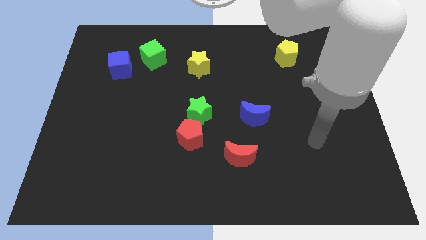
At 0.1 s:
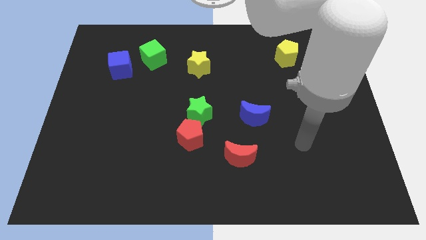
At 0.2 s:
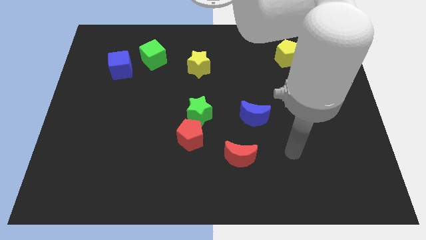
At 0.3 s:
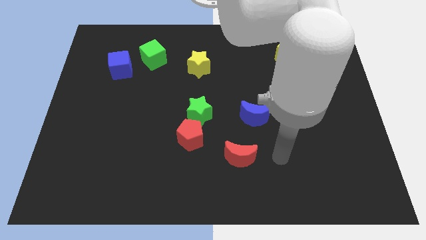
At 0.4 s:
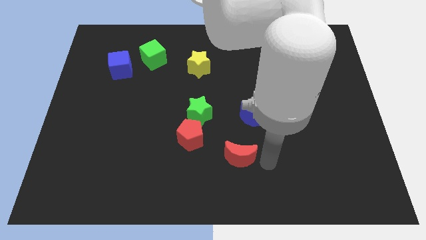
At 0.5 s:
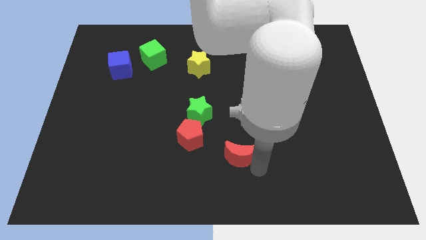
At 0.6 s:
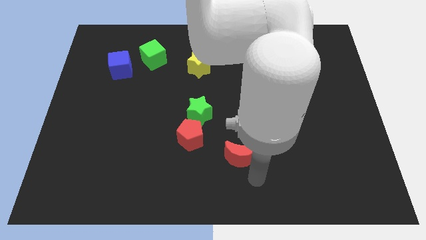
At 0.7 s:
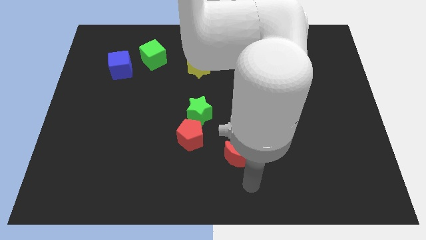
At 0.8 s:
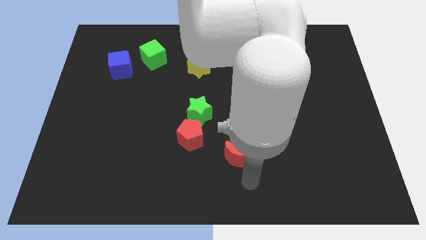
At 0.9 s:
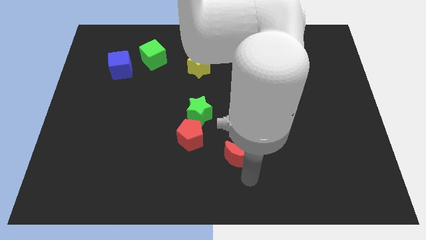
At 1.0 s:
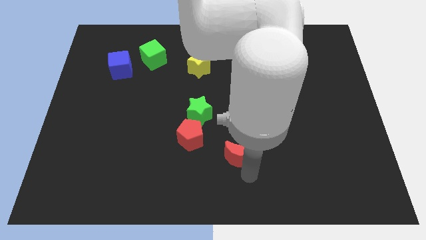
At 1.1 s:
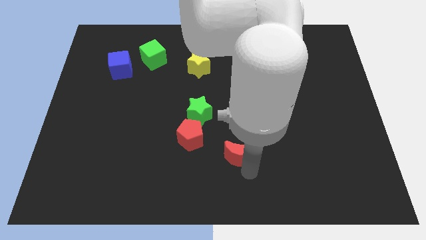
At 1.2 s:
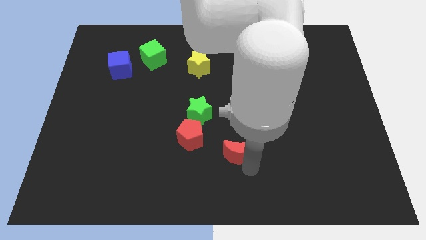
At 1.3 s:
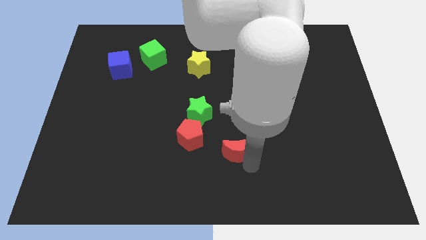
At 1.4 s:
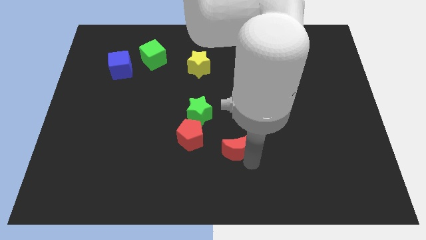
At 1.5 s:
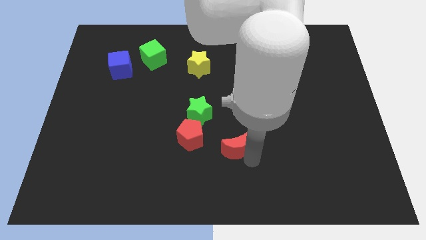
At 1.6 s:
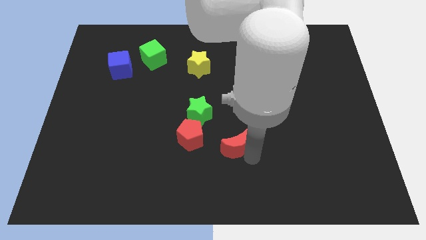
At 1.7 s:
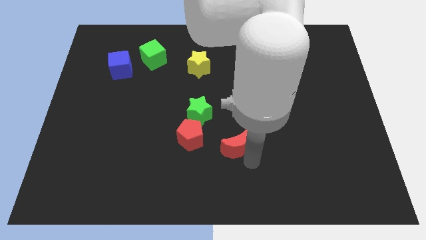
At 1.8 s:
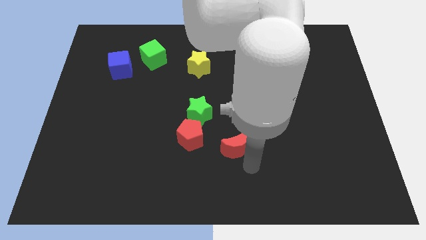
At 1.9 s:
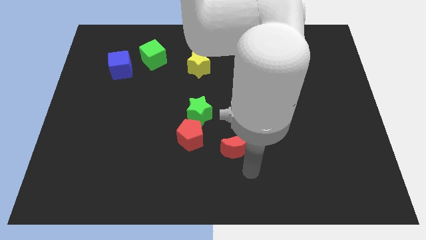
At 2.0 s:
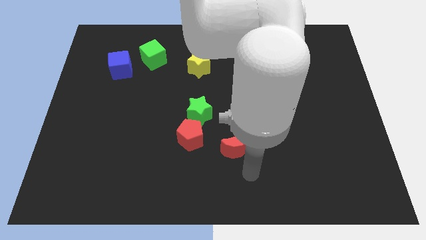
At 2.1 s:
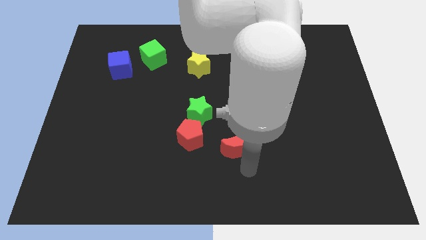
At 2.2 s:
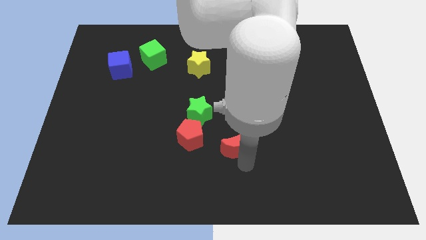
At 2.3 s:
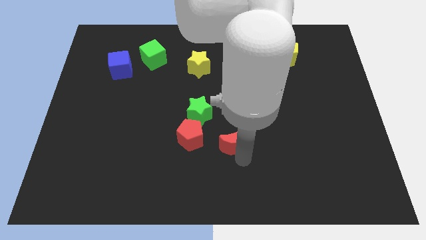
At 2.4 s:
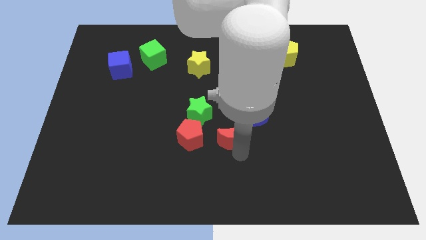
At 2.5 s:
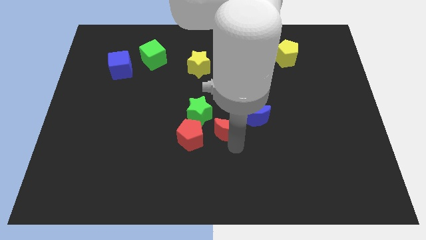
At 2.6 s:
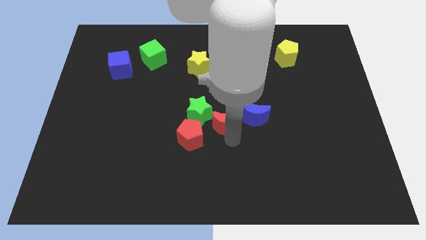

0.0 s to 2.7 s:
slide the red moon slightly up and left

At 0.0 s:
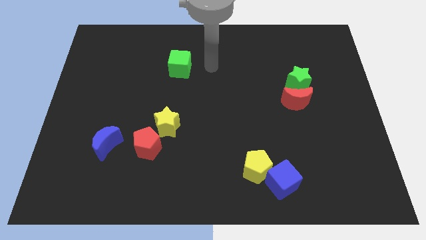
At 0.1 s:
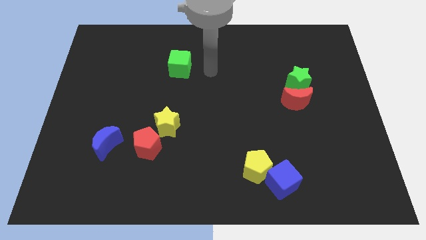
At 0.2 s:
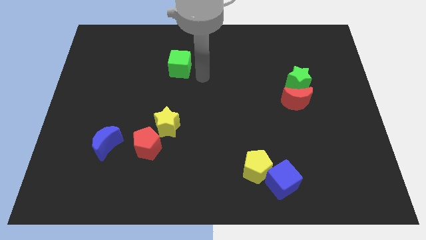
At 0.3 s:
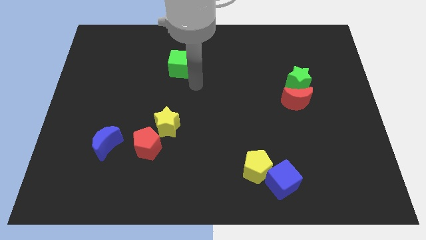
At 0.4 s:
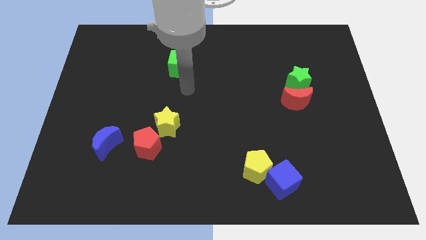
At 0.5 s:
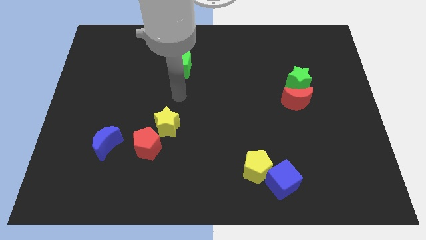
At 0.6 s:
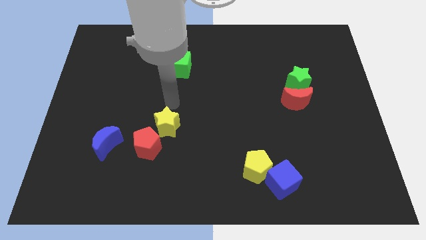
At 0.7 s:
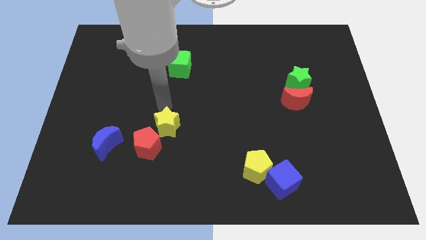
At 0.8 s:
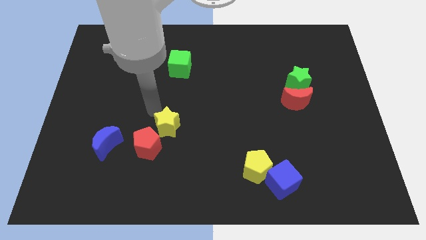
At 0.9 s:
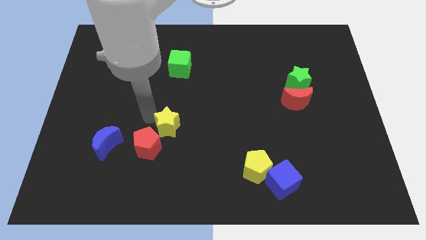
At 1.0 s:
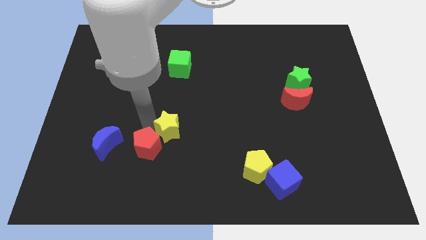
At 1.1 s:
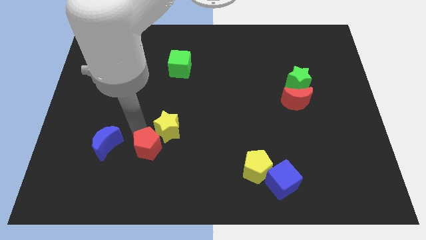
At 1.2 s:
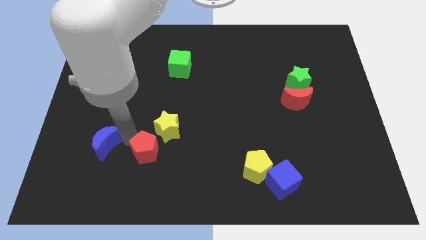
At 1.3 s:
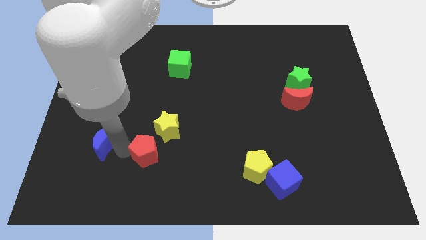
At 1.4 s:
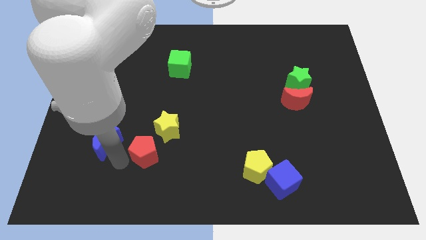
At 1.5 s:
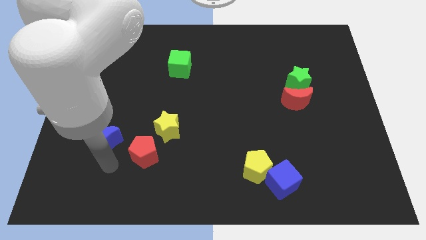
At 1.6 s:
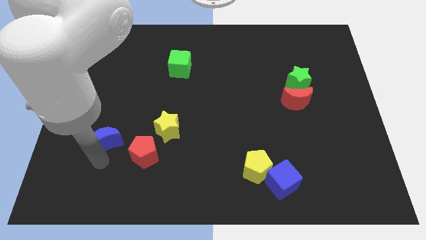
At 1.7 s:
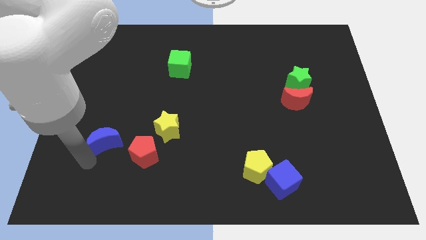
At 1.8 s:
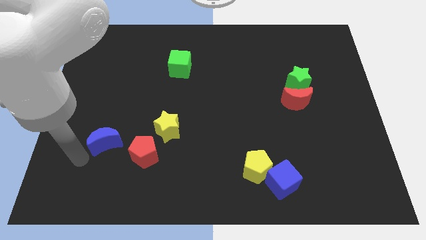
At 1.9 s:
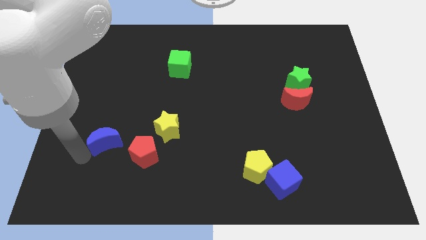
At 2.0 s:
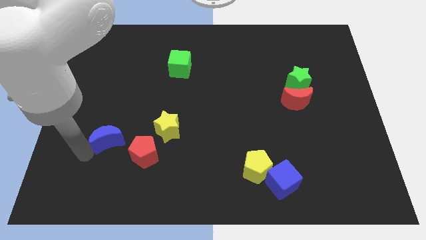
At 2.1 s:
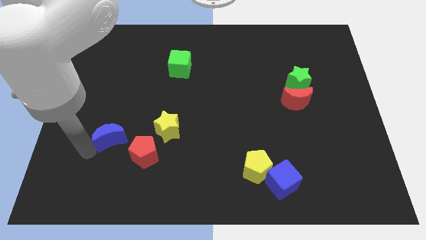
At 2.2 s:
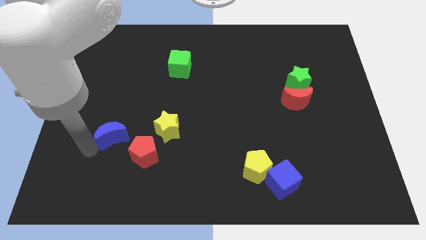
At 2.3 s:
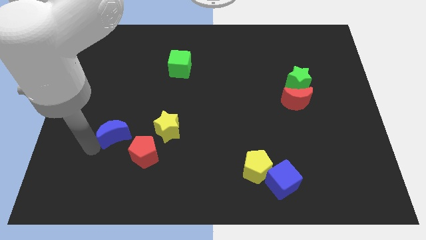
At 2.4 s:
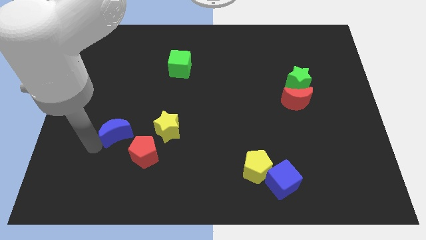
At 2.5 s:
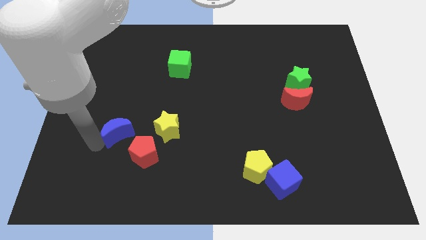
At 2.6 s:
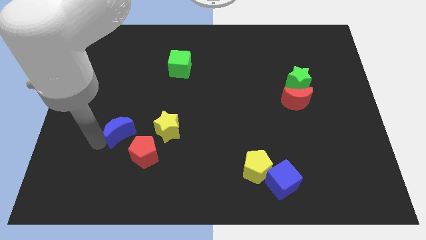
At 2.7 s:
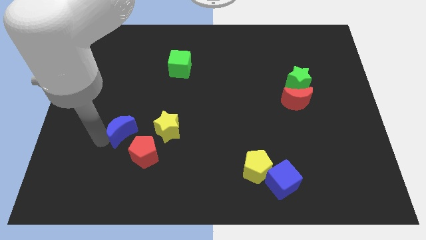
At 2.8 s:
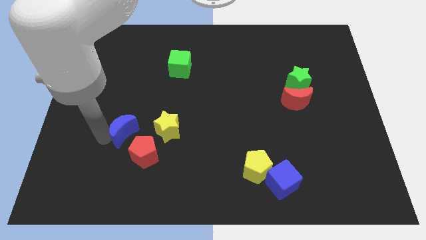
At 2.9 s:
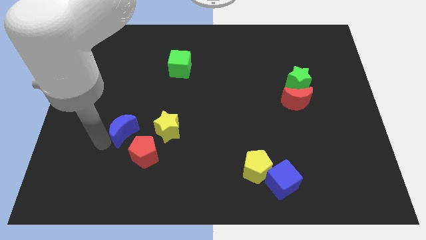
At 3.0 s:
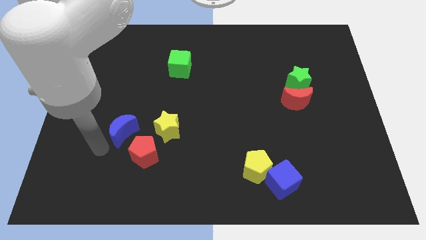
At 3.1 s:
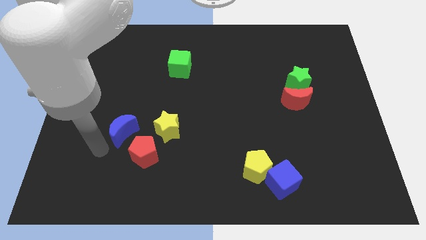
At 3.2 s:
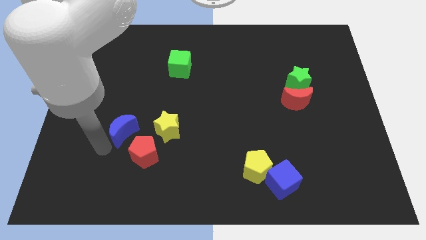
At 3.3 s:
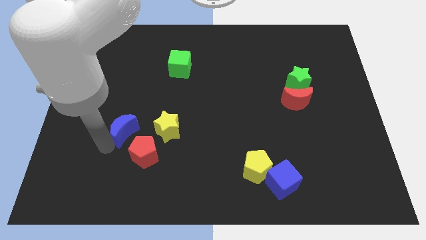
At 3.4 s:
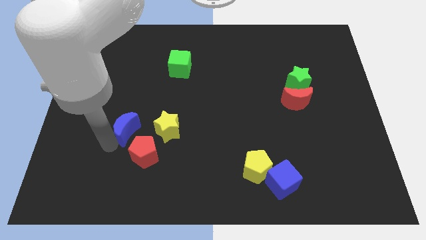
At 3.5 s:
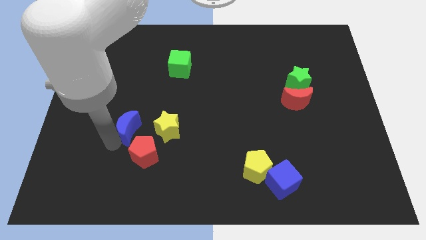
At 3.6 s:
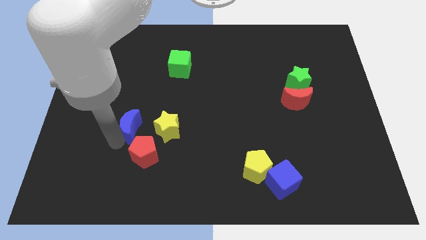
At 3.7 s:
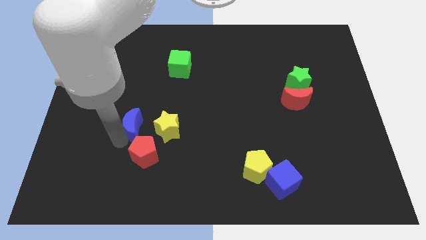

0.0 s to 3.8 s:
push the blue moon up and right somewhat

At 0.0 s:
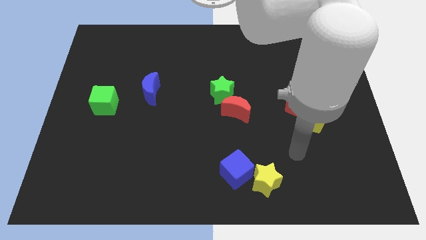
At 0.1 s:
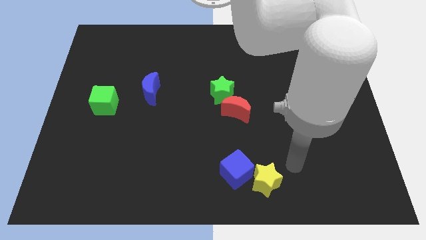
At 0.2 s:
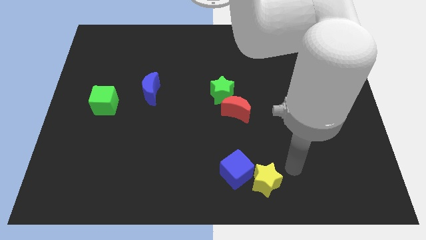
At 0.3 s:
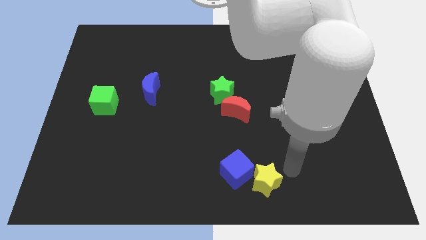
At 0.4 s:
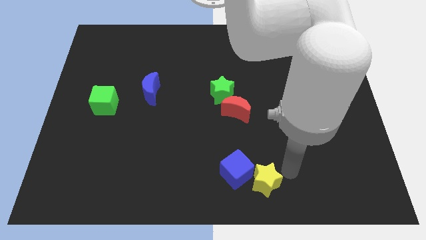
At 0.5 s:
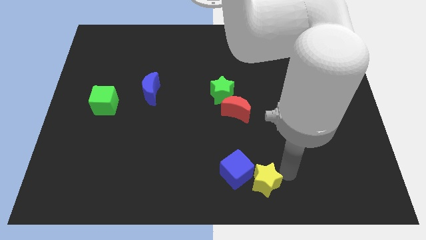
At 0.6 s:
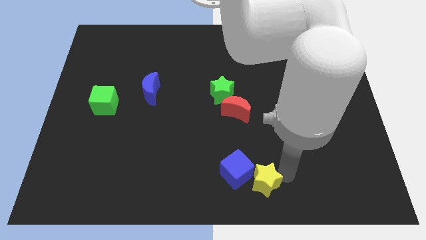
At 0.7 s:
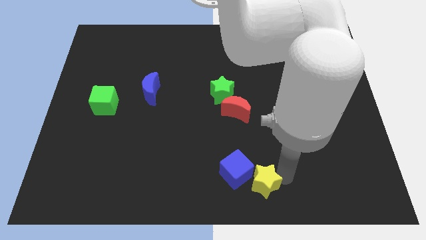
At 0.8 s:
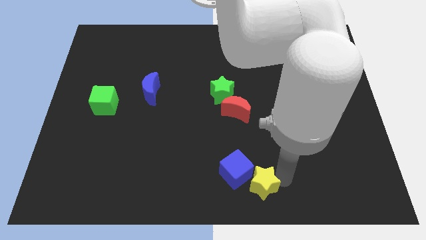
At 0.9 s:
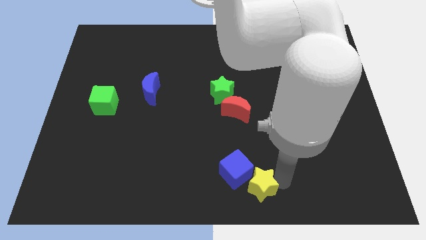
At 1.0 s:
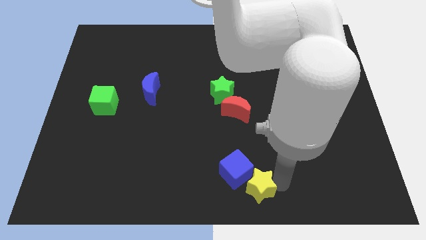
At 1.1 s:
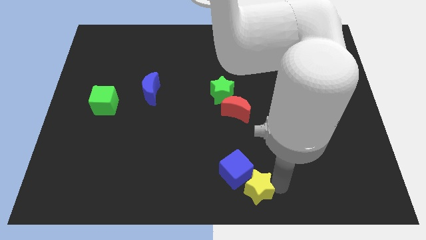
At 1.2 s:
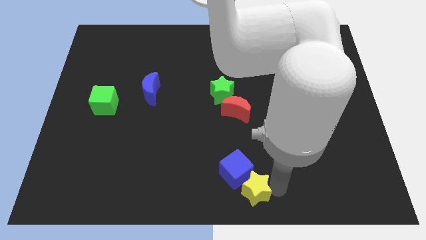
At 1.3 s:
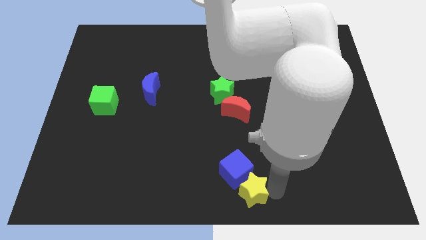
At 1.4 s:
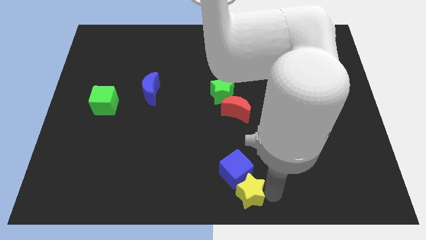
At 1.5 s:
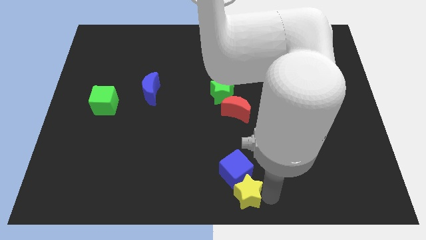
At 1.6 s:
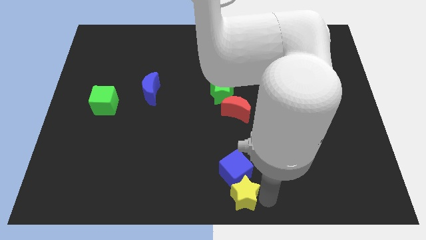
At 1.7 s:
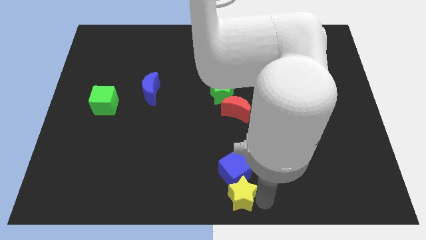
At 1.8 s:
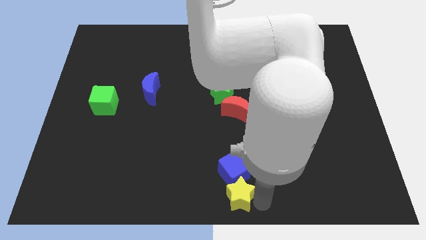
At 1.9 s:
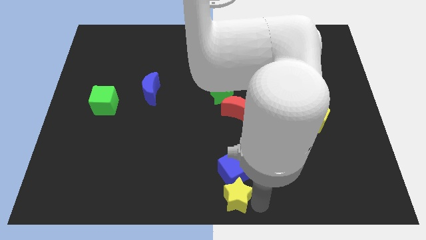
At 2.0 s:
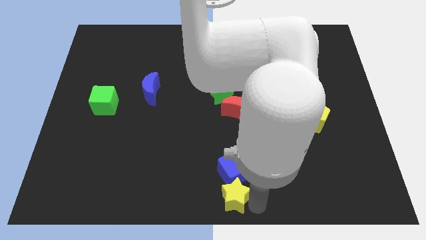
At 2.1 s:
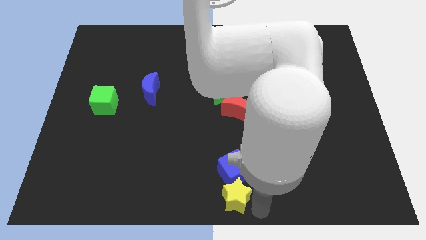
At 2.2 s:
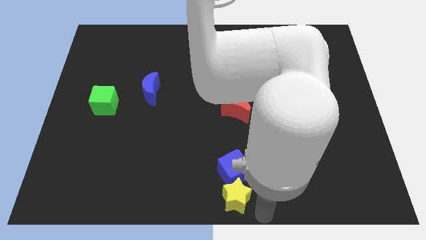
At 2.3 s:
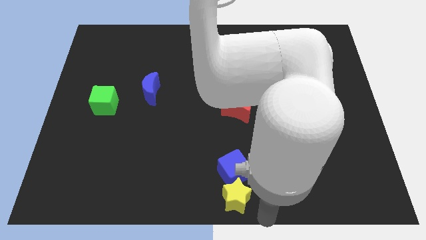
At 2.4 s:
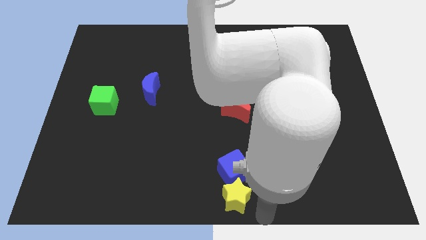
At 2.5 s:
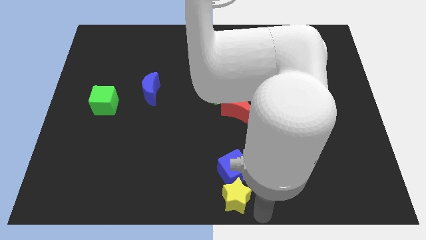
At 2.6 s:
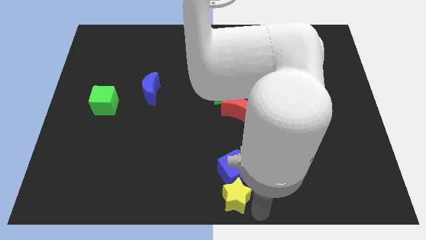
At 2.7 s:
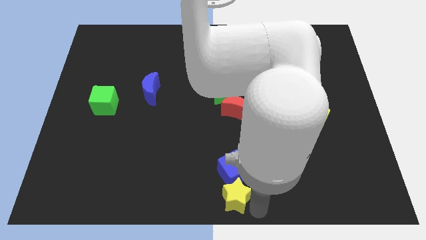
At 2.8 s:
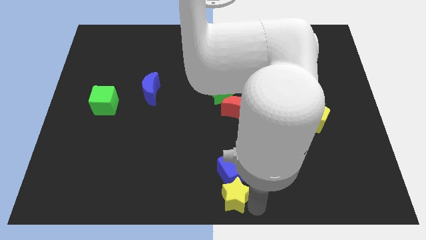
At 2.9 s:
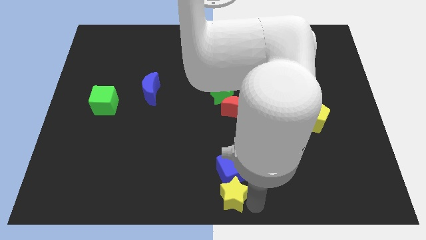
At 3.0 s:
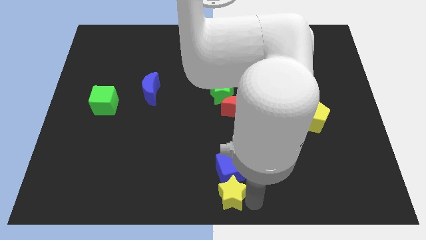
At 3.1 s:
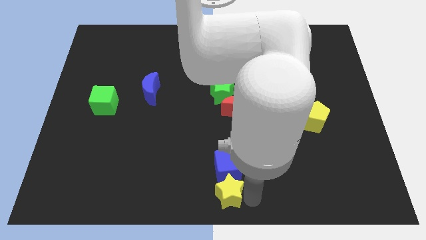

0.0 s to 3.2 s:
slide the yellow star left somewhat
